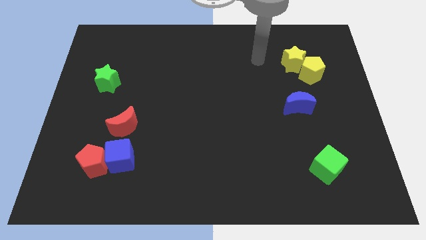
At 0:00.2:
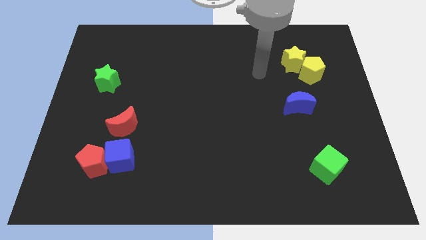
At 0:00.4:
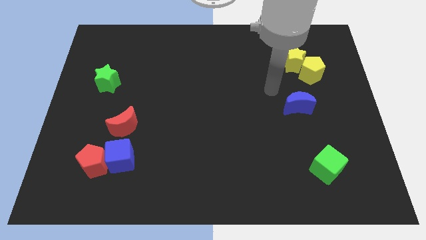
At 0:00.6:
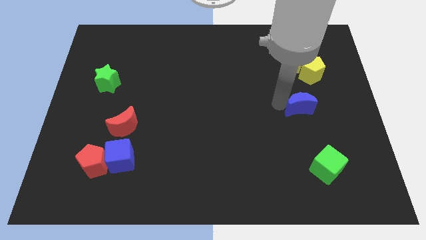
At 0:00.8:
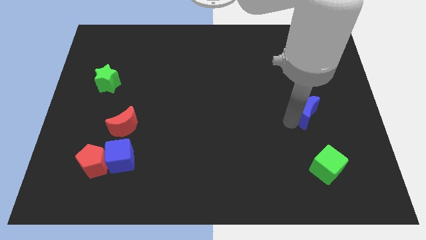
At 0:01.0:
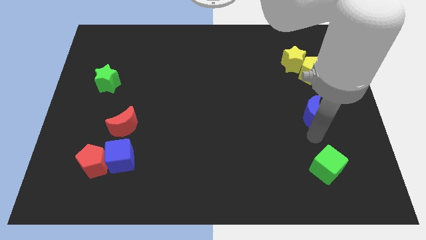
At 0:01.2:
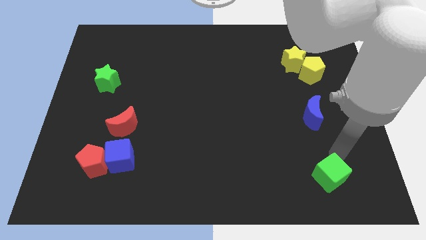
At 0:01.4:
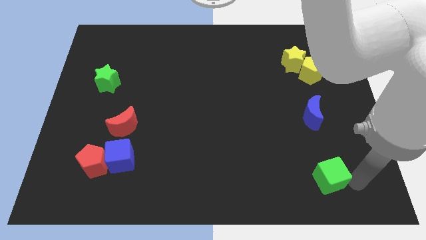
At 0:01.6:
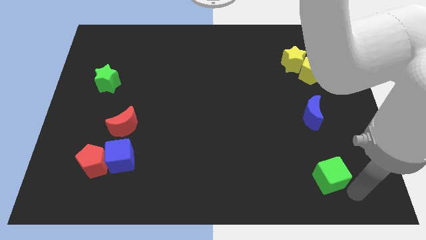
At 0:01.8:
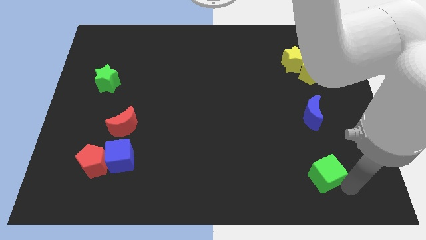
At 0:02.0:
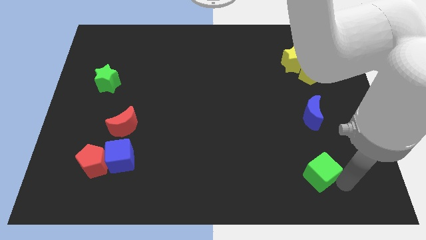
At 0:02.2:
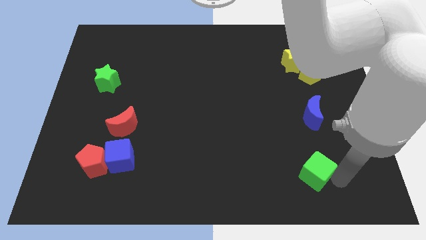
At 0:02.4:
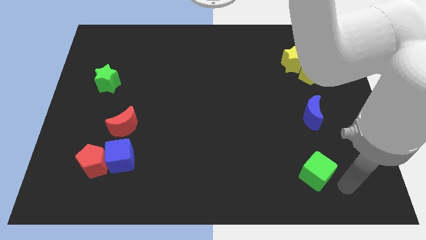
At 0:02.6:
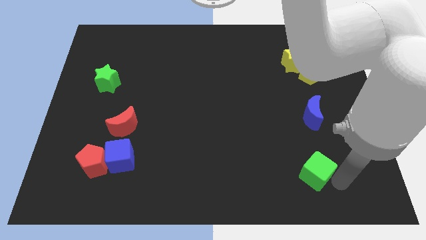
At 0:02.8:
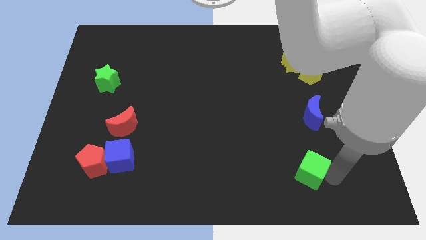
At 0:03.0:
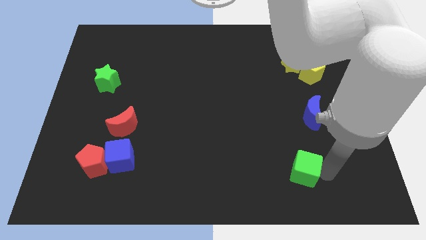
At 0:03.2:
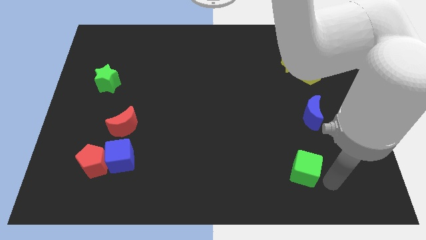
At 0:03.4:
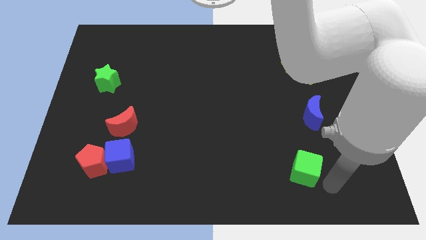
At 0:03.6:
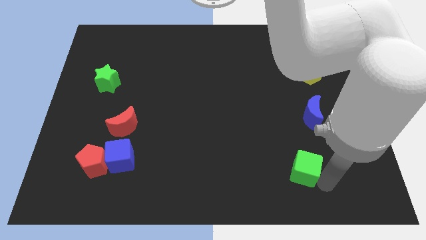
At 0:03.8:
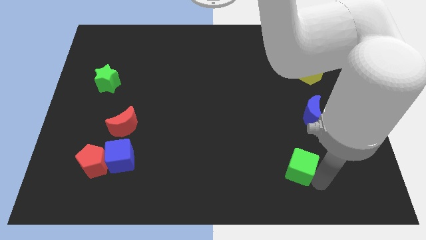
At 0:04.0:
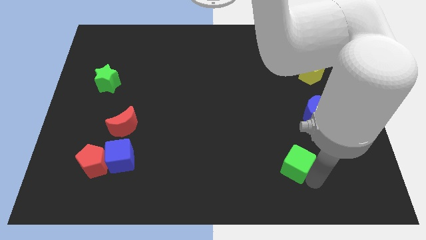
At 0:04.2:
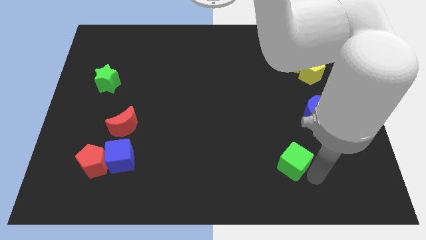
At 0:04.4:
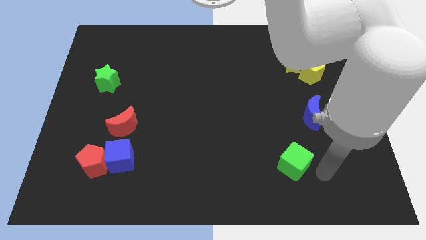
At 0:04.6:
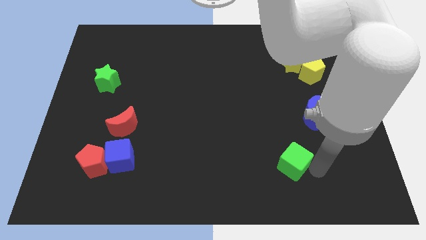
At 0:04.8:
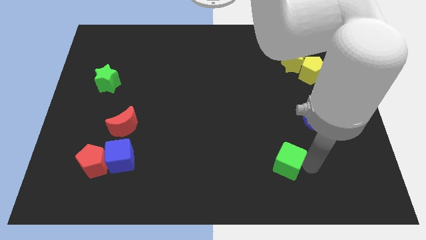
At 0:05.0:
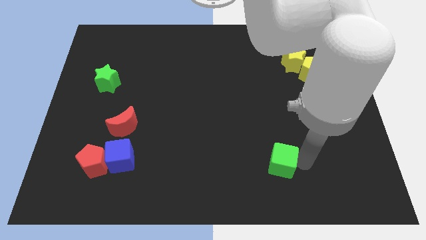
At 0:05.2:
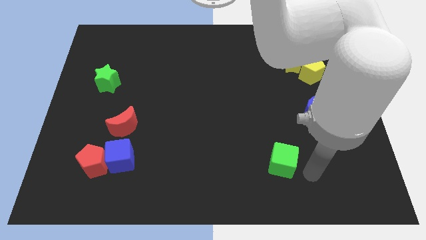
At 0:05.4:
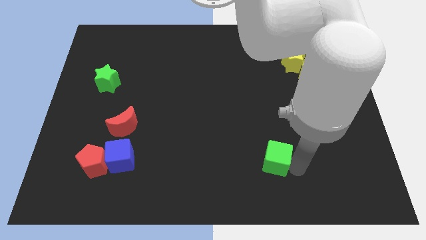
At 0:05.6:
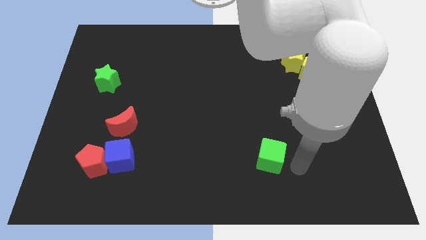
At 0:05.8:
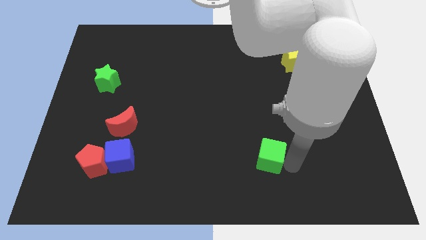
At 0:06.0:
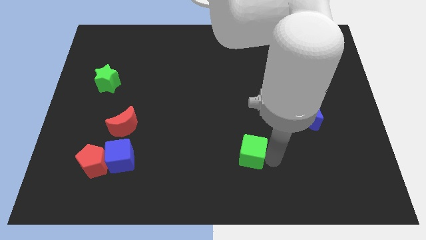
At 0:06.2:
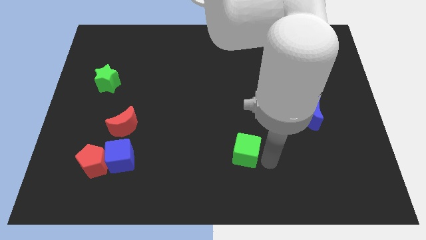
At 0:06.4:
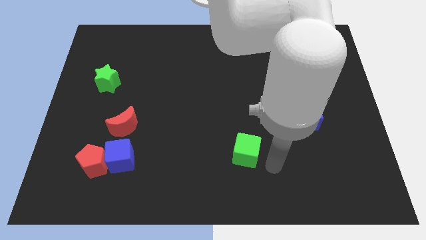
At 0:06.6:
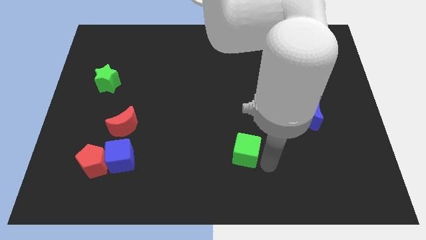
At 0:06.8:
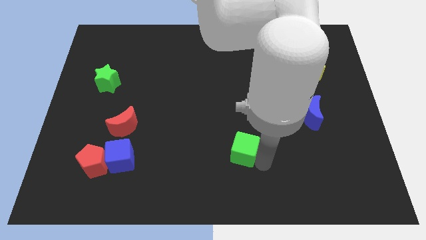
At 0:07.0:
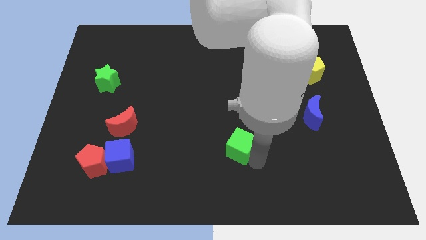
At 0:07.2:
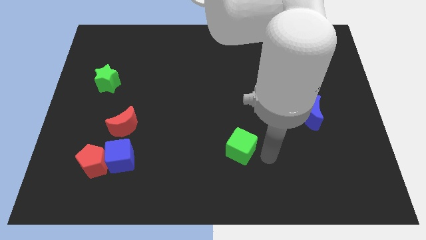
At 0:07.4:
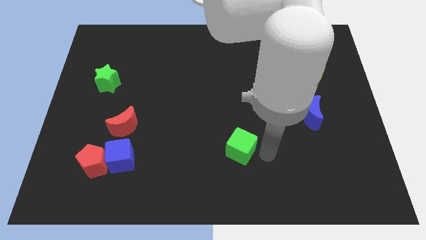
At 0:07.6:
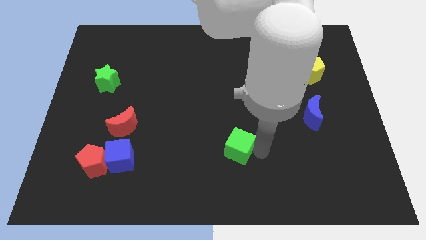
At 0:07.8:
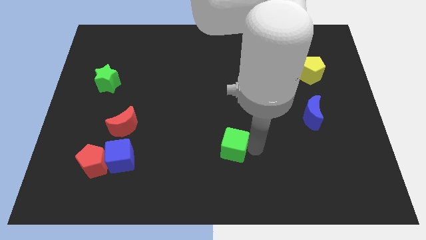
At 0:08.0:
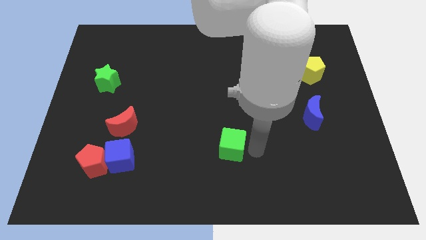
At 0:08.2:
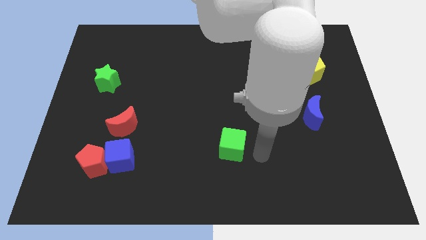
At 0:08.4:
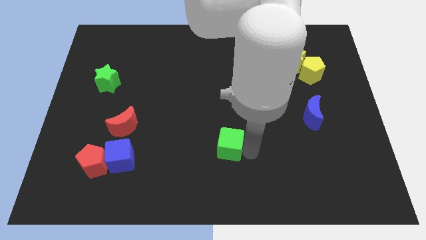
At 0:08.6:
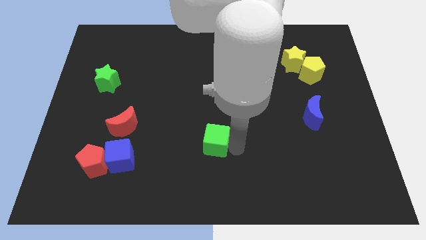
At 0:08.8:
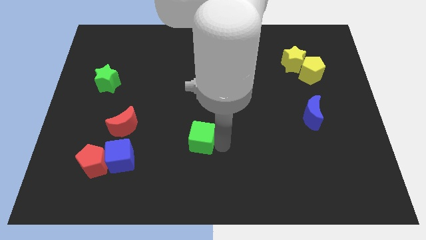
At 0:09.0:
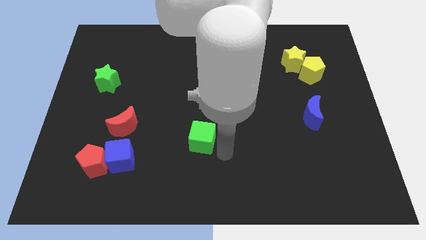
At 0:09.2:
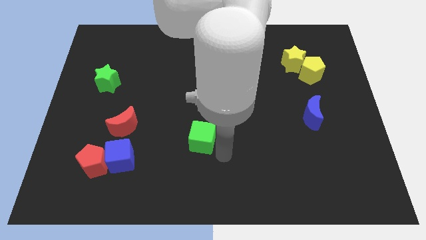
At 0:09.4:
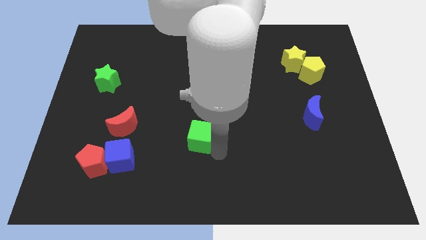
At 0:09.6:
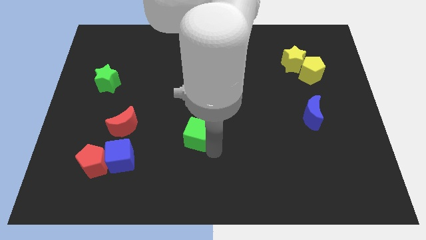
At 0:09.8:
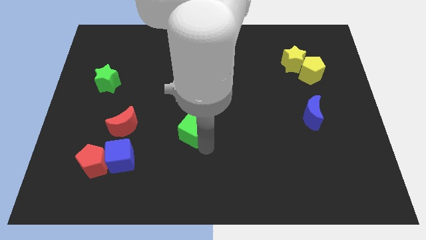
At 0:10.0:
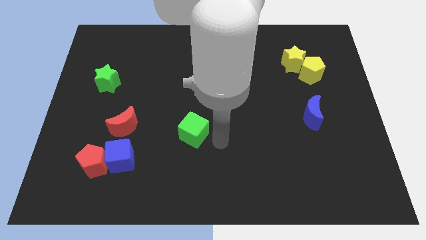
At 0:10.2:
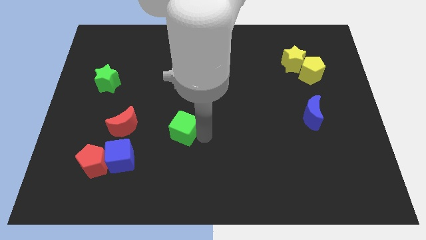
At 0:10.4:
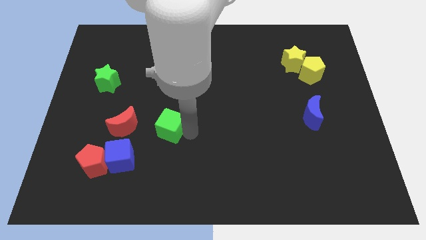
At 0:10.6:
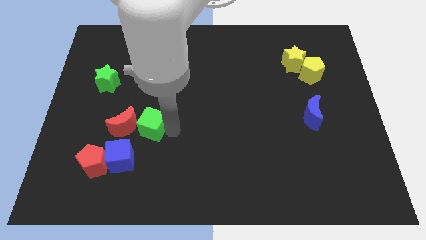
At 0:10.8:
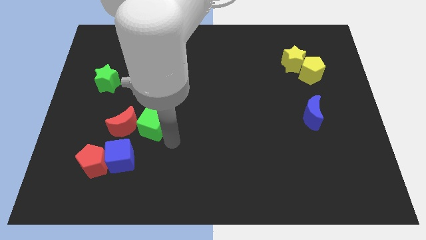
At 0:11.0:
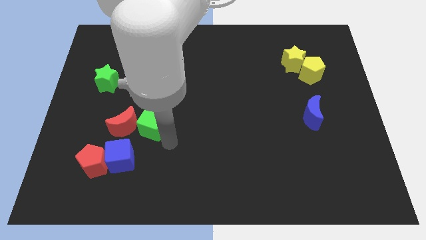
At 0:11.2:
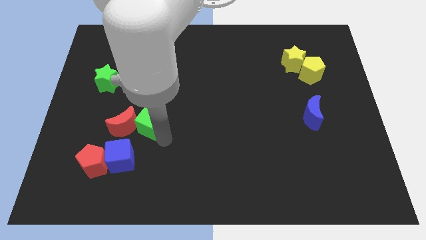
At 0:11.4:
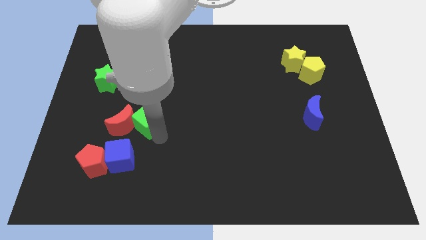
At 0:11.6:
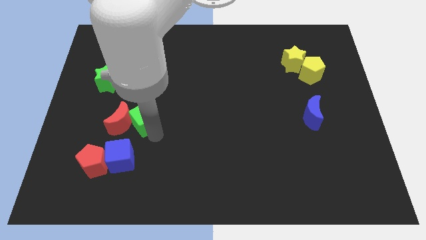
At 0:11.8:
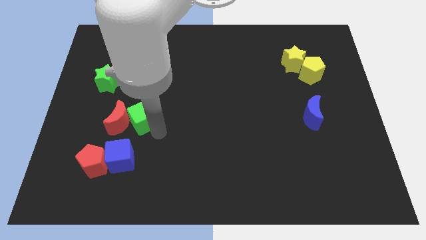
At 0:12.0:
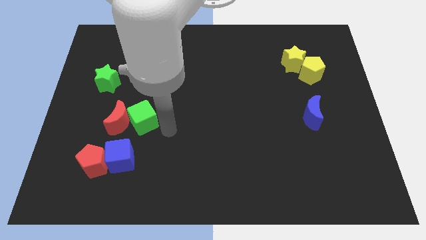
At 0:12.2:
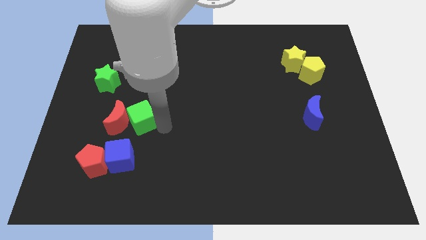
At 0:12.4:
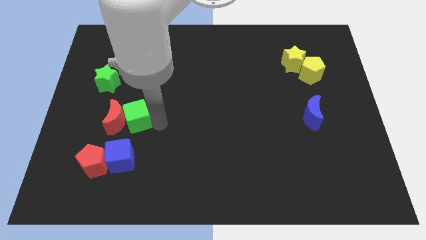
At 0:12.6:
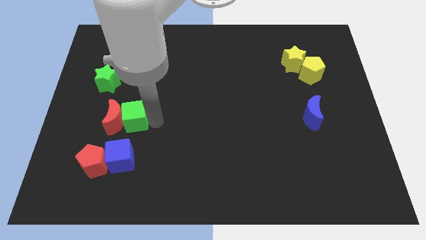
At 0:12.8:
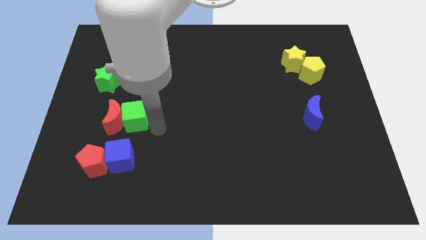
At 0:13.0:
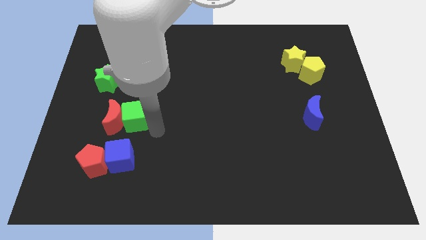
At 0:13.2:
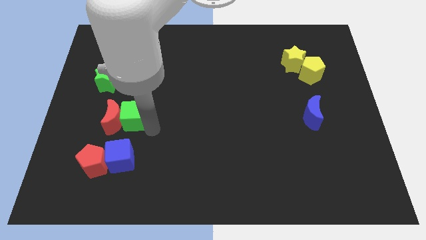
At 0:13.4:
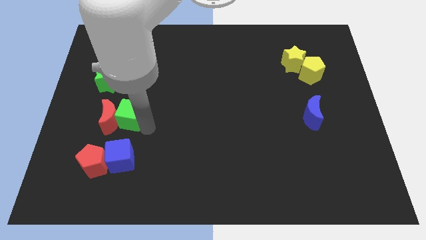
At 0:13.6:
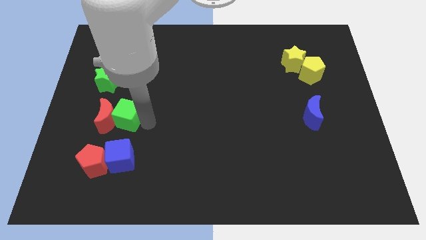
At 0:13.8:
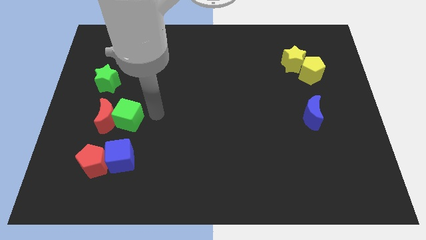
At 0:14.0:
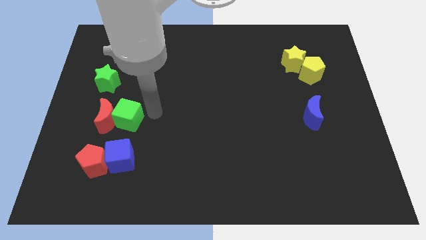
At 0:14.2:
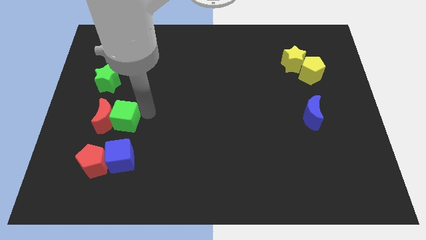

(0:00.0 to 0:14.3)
slide the green cube to the top of the red pentagon
